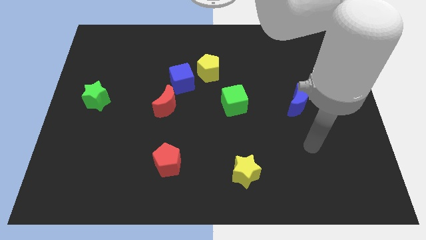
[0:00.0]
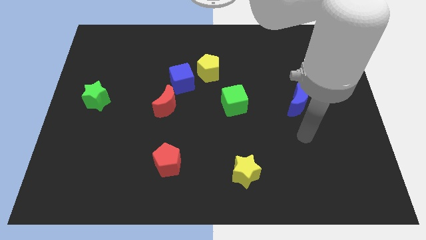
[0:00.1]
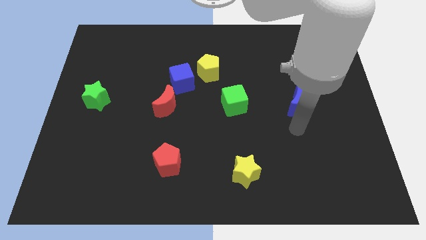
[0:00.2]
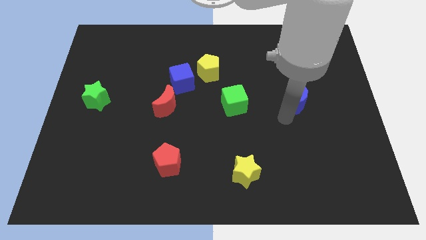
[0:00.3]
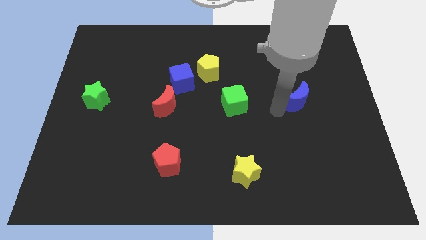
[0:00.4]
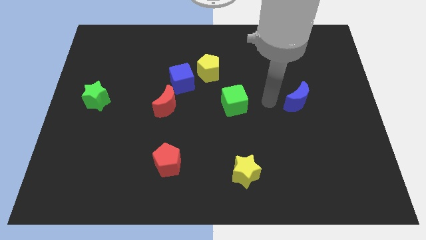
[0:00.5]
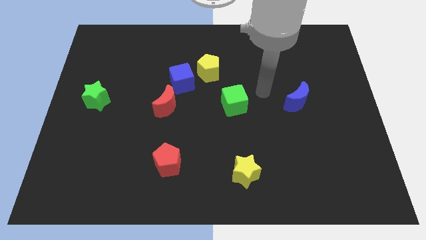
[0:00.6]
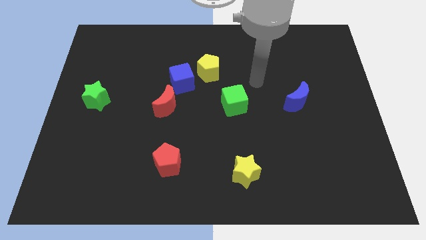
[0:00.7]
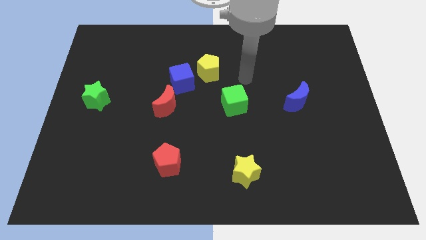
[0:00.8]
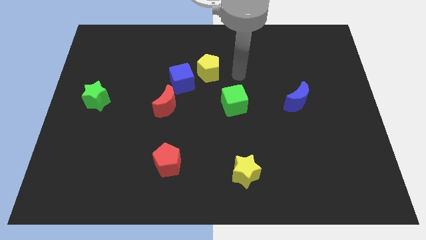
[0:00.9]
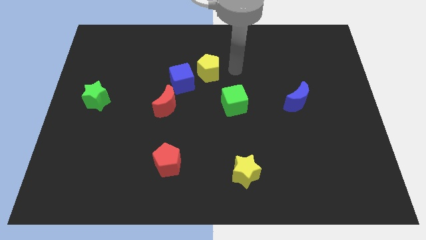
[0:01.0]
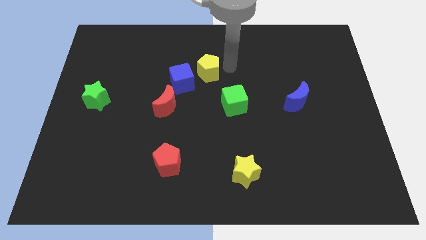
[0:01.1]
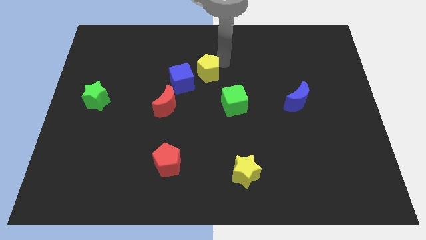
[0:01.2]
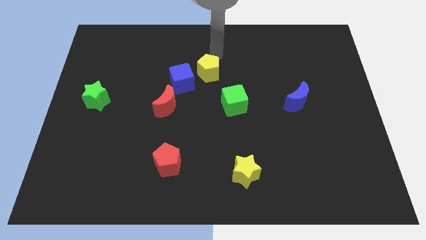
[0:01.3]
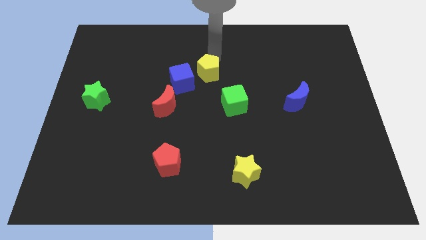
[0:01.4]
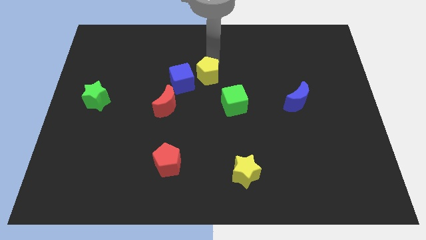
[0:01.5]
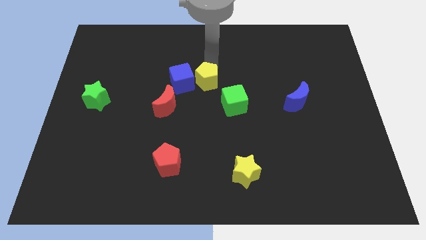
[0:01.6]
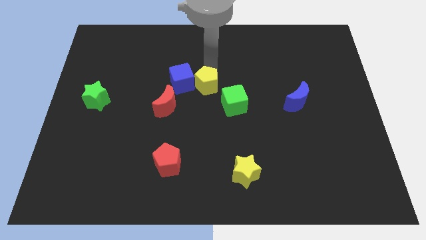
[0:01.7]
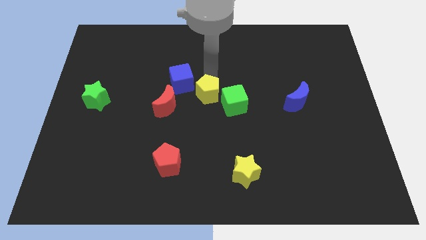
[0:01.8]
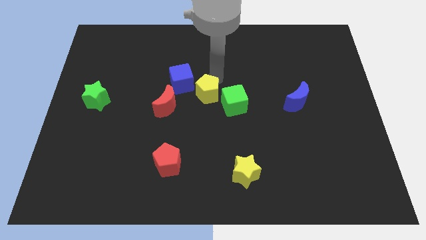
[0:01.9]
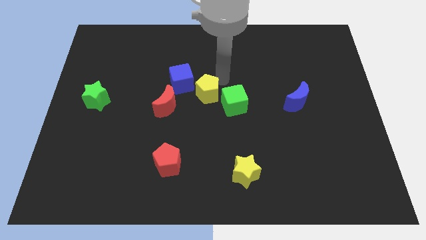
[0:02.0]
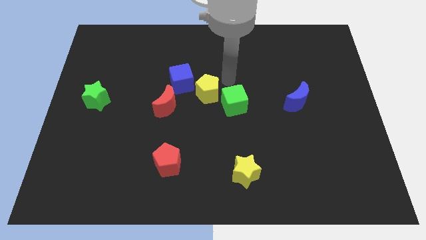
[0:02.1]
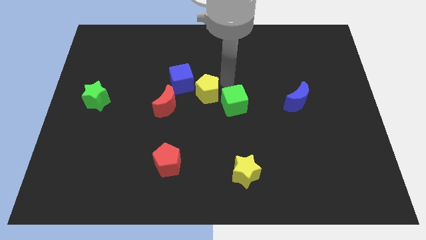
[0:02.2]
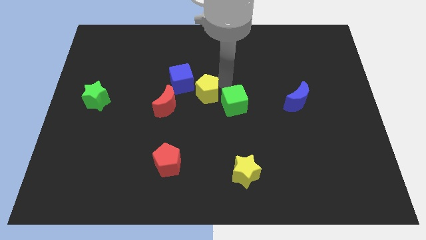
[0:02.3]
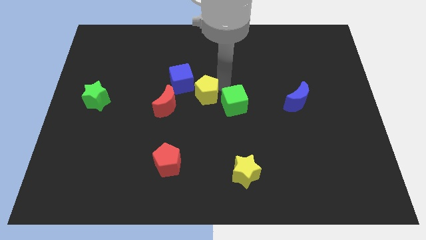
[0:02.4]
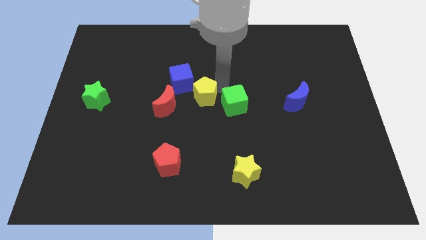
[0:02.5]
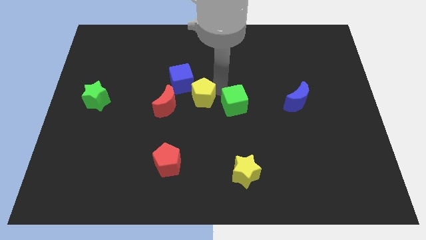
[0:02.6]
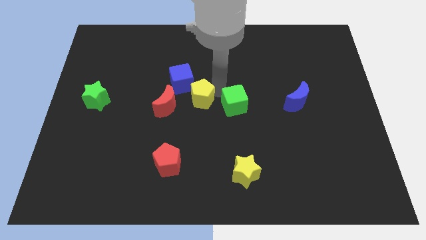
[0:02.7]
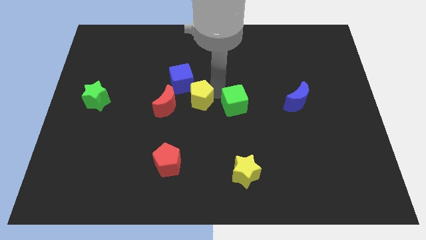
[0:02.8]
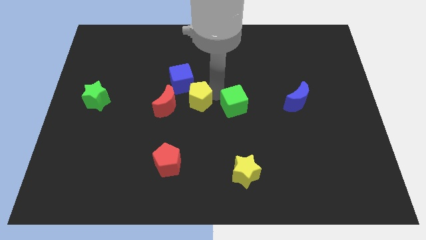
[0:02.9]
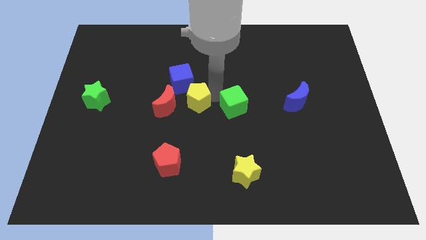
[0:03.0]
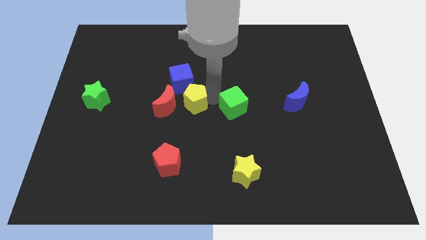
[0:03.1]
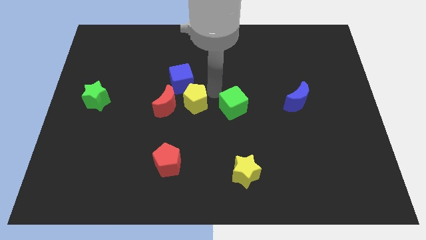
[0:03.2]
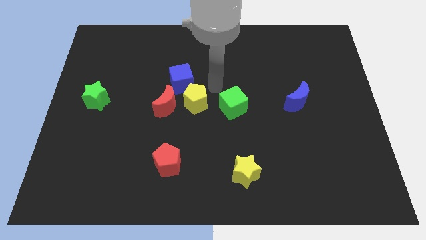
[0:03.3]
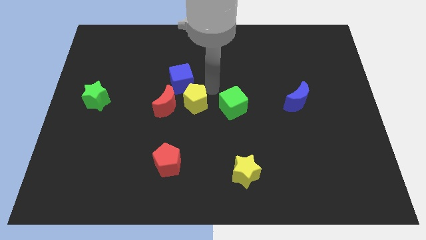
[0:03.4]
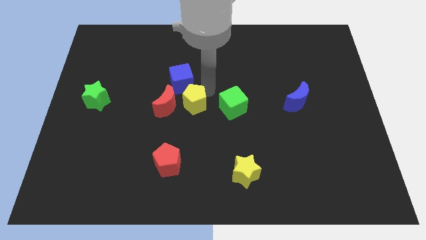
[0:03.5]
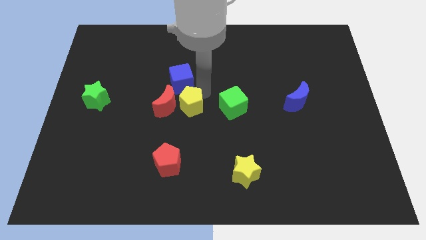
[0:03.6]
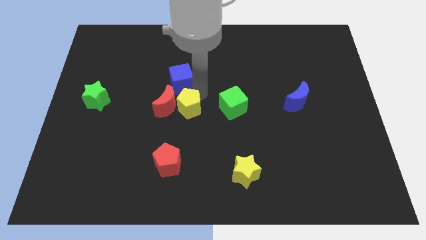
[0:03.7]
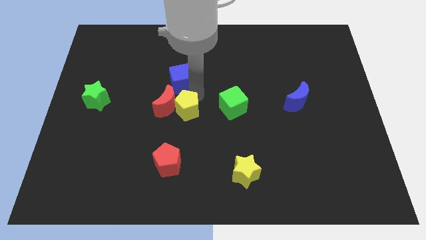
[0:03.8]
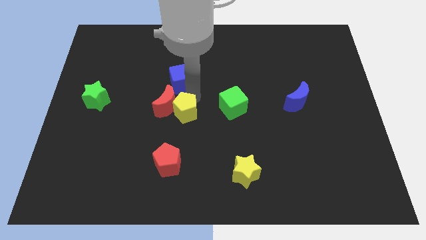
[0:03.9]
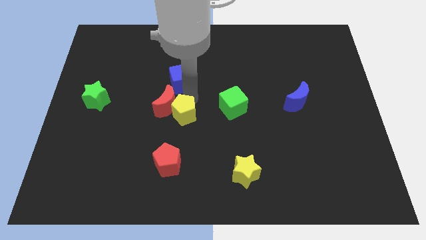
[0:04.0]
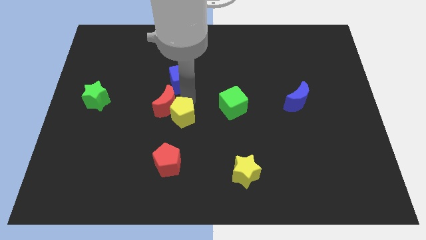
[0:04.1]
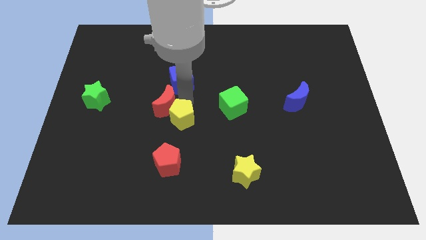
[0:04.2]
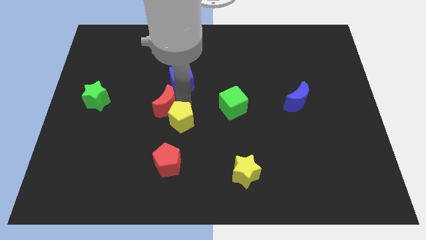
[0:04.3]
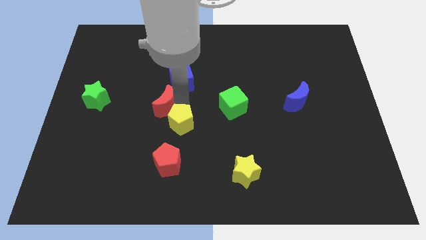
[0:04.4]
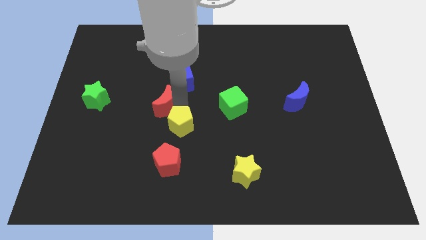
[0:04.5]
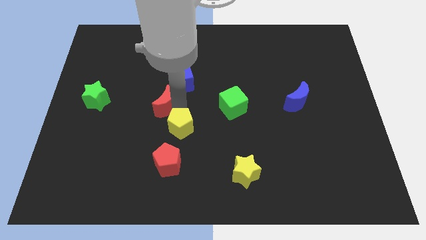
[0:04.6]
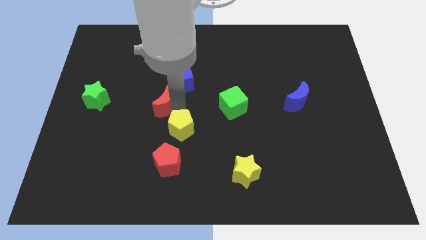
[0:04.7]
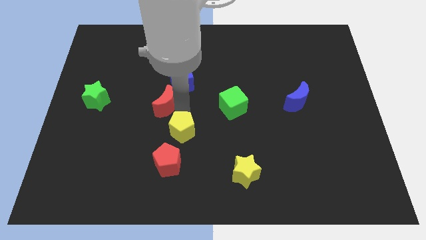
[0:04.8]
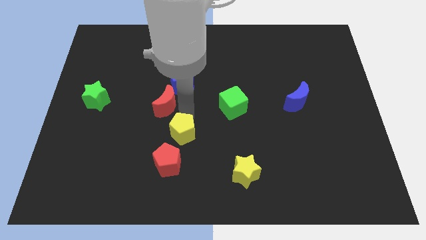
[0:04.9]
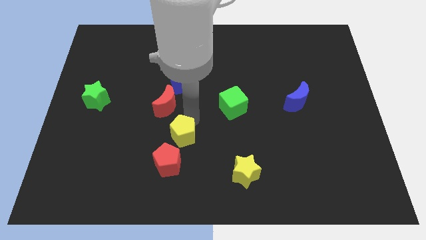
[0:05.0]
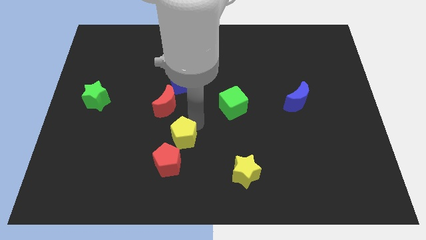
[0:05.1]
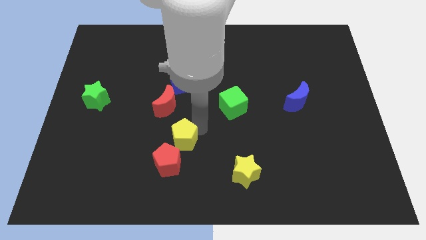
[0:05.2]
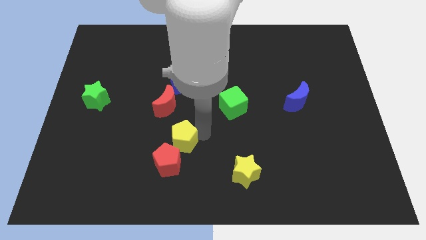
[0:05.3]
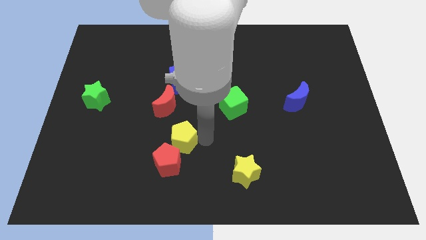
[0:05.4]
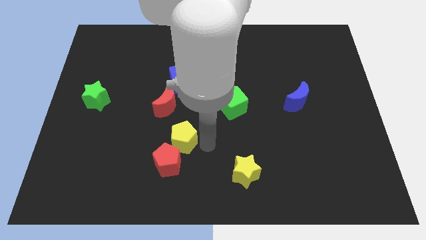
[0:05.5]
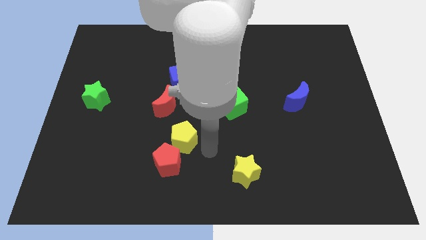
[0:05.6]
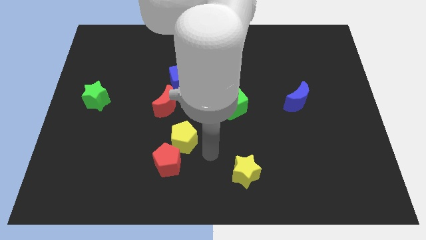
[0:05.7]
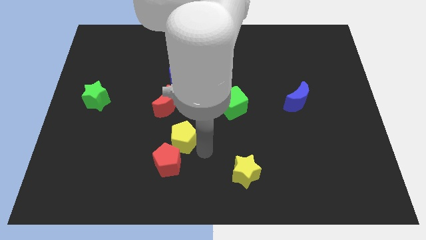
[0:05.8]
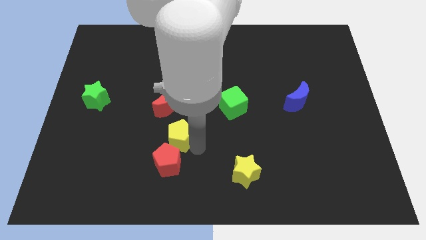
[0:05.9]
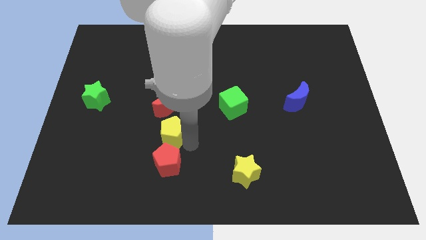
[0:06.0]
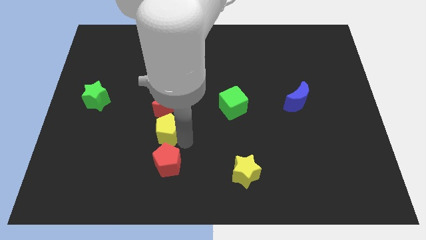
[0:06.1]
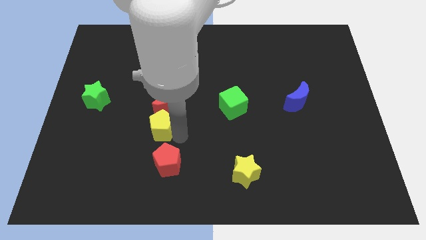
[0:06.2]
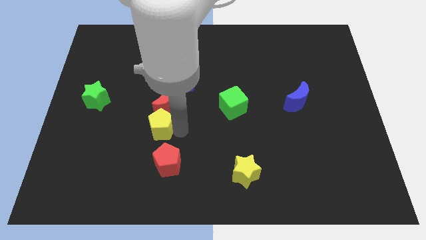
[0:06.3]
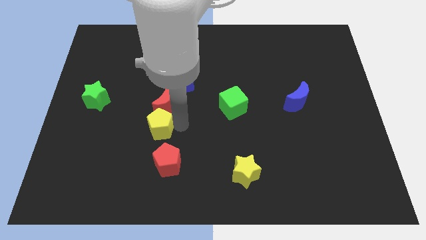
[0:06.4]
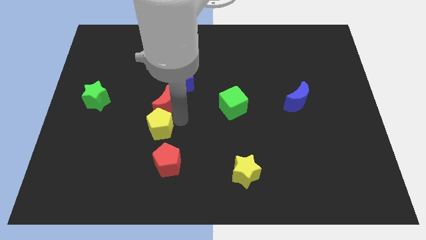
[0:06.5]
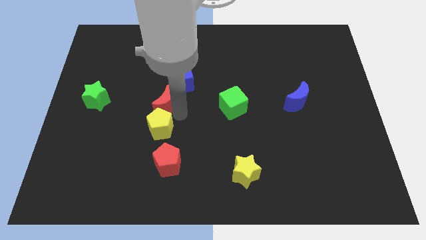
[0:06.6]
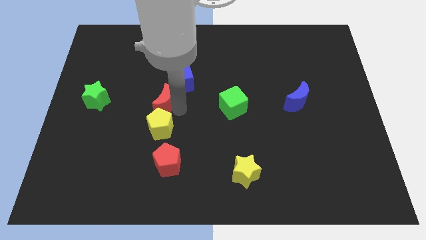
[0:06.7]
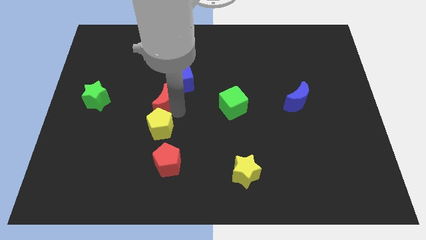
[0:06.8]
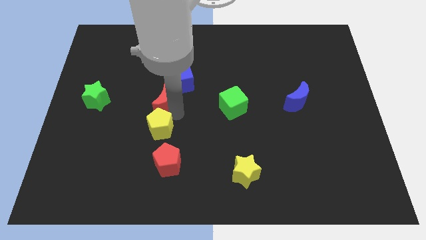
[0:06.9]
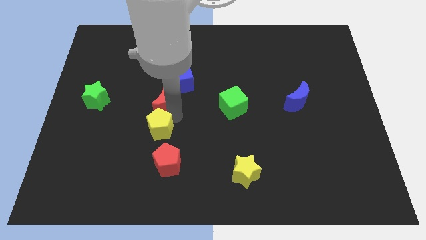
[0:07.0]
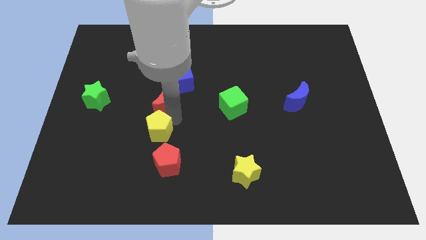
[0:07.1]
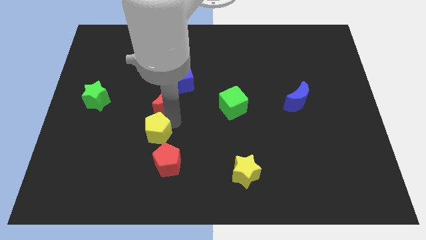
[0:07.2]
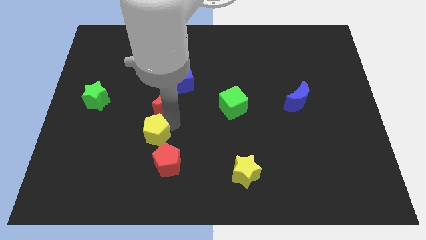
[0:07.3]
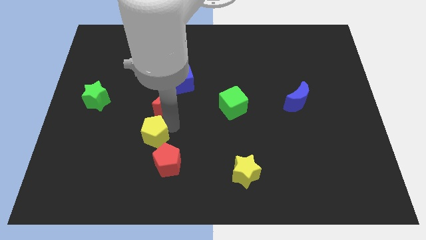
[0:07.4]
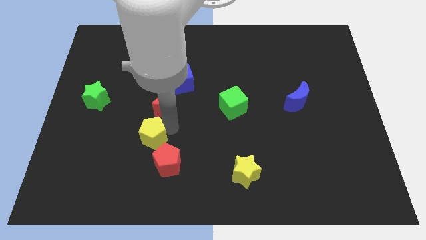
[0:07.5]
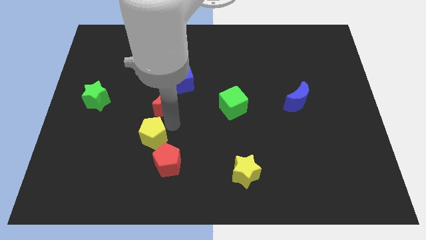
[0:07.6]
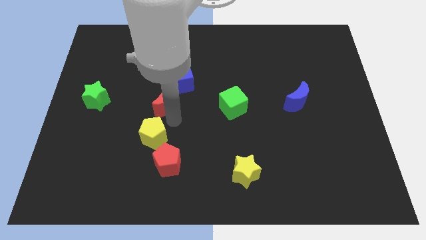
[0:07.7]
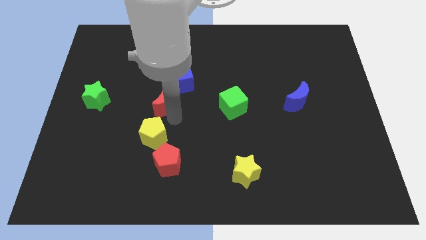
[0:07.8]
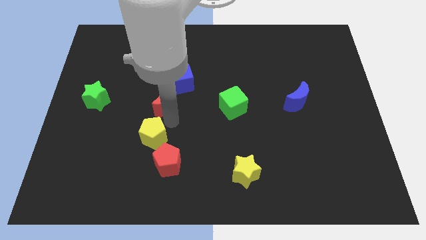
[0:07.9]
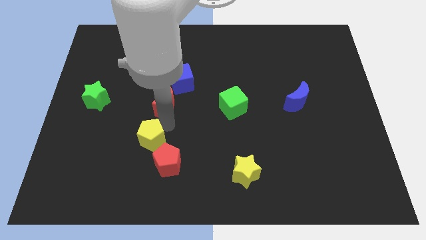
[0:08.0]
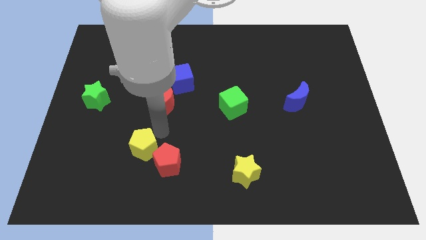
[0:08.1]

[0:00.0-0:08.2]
move the yellow pentagon to the left of the red pentagon
